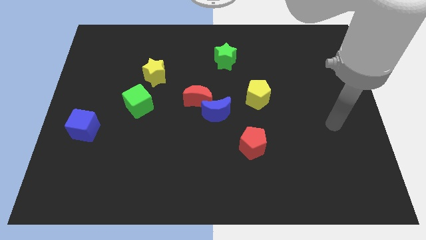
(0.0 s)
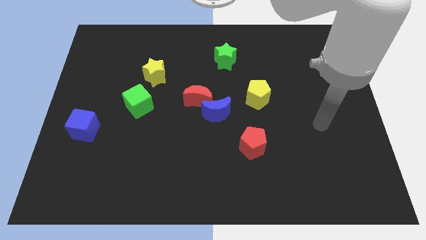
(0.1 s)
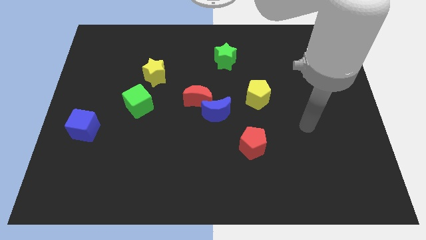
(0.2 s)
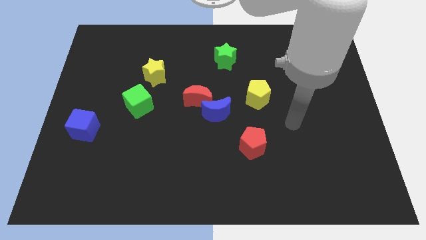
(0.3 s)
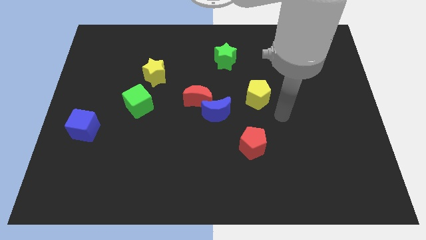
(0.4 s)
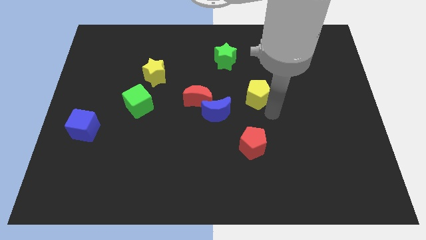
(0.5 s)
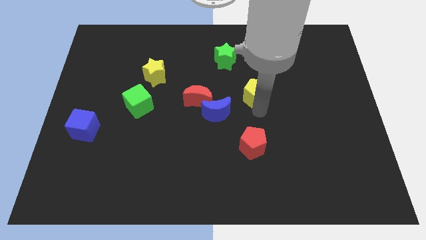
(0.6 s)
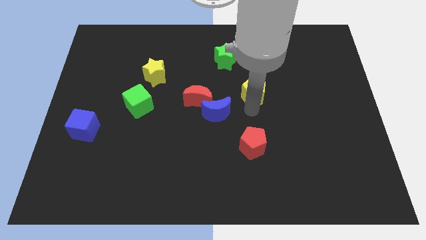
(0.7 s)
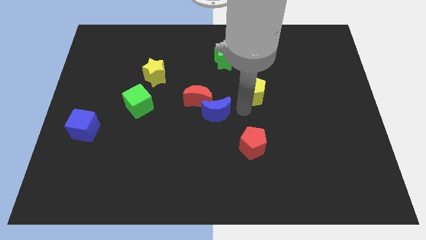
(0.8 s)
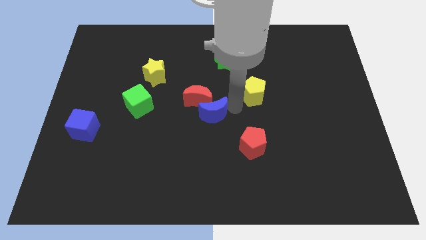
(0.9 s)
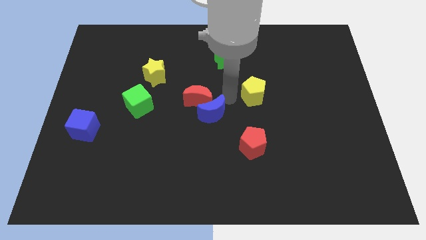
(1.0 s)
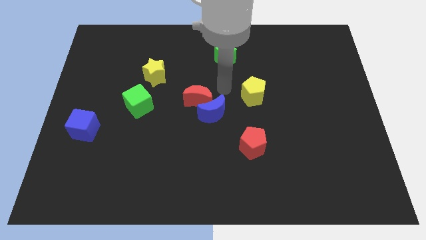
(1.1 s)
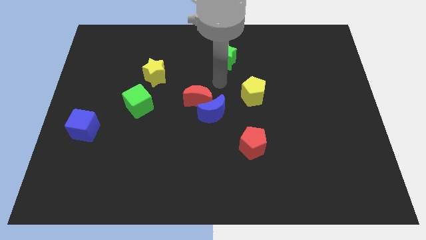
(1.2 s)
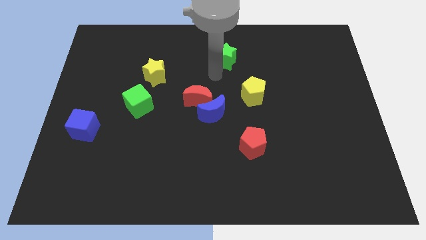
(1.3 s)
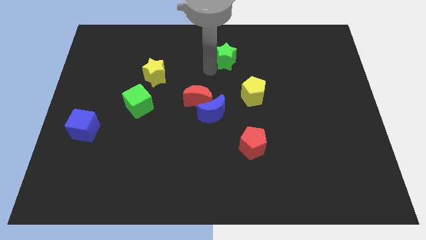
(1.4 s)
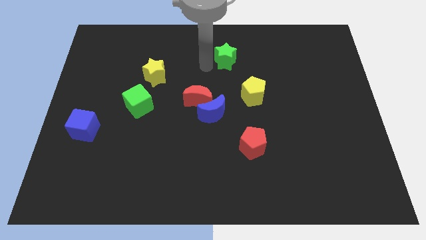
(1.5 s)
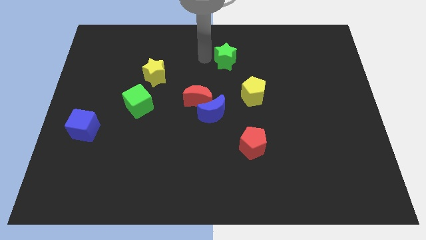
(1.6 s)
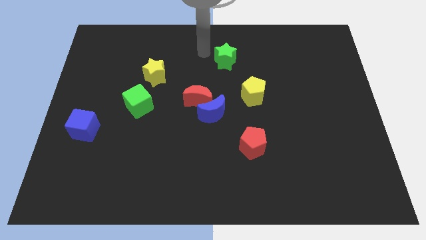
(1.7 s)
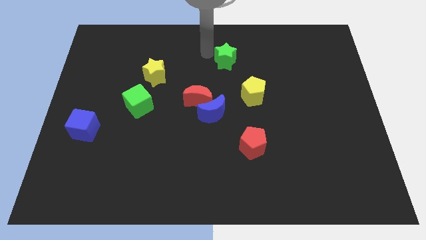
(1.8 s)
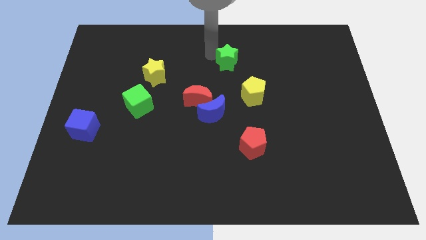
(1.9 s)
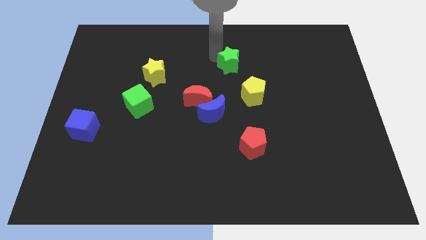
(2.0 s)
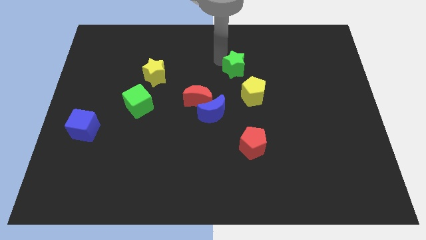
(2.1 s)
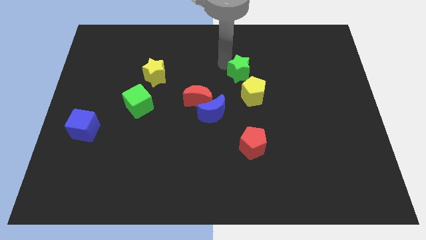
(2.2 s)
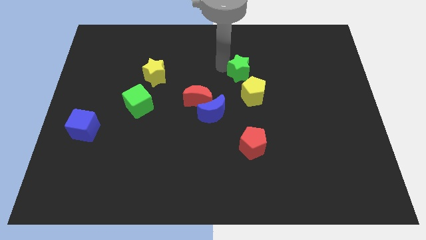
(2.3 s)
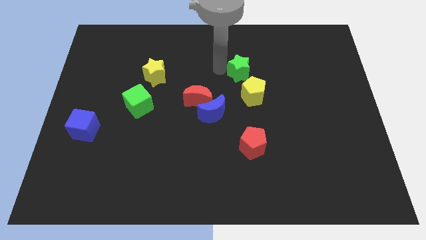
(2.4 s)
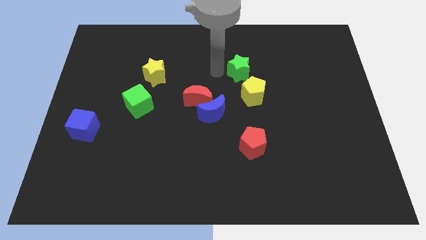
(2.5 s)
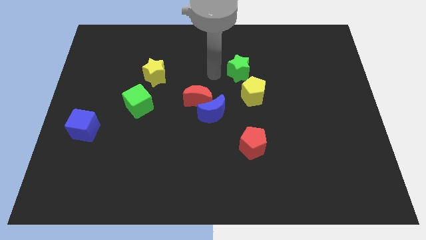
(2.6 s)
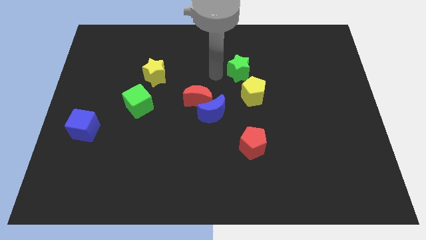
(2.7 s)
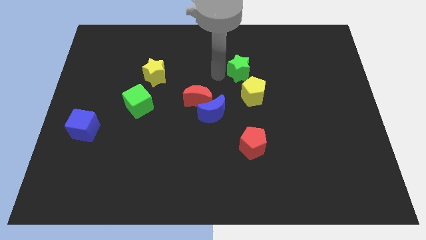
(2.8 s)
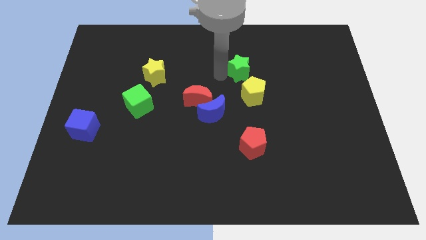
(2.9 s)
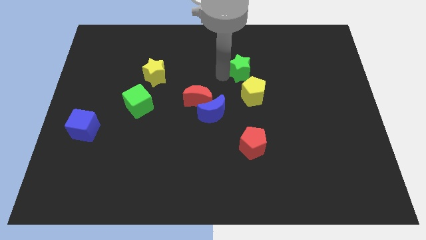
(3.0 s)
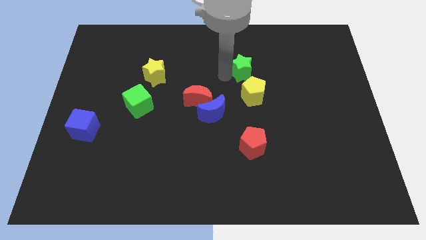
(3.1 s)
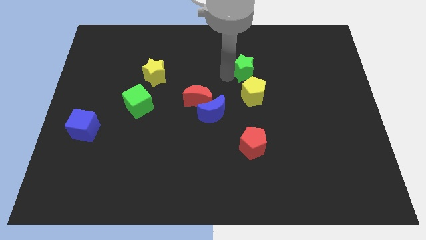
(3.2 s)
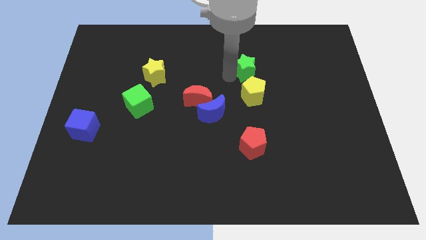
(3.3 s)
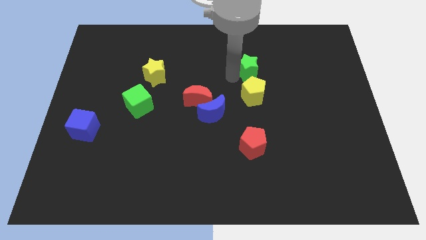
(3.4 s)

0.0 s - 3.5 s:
move the green star downwards and to the right diagonally slightly

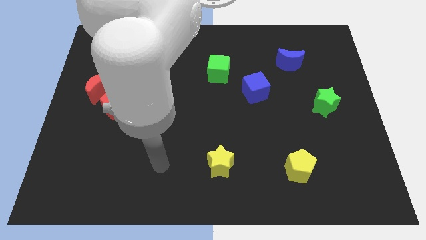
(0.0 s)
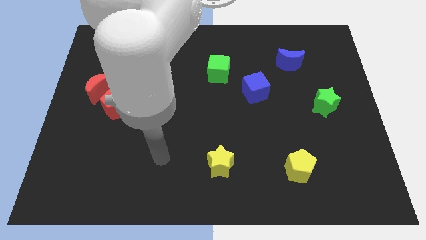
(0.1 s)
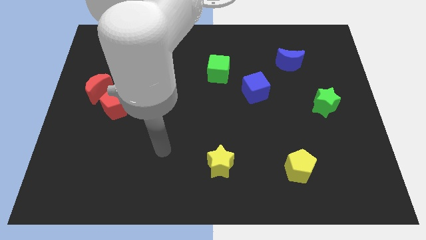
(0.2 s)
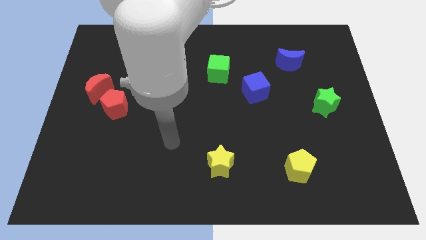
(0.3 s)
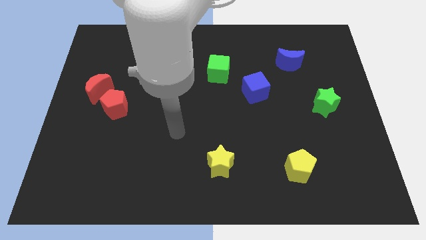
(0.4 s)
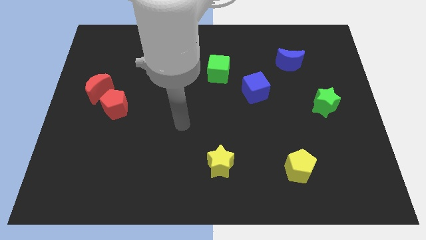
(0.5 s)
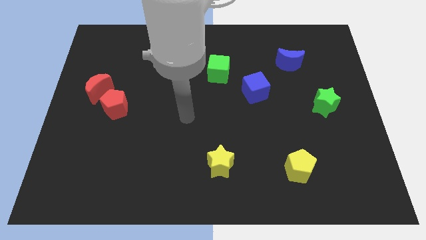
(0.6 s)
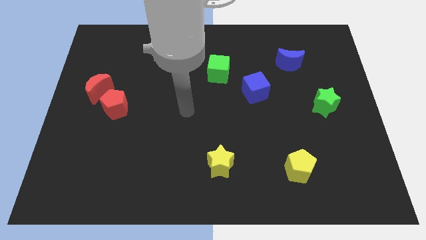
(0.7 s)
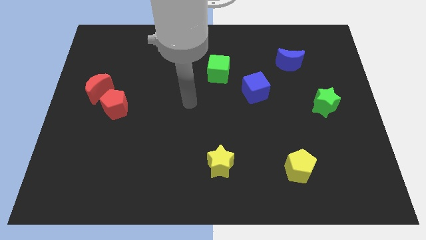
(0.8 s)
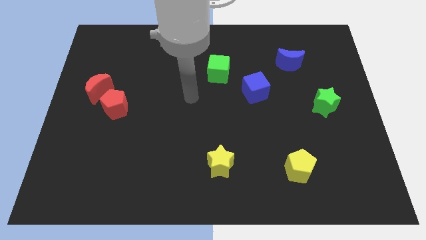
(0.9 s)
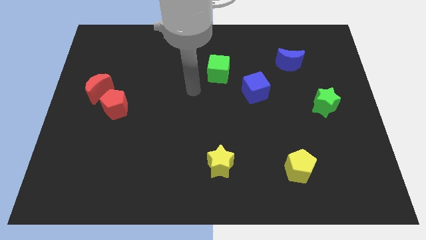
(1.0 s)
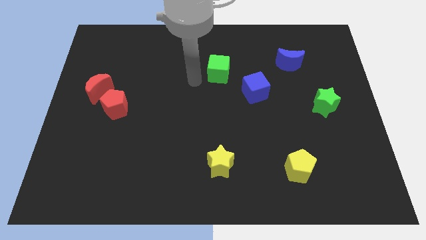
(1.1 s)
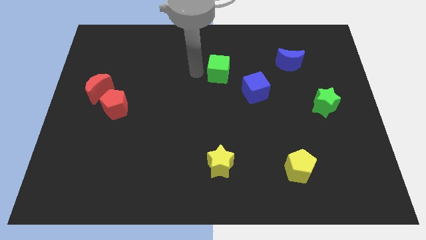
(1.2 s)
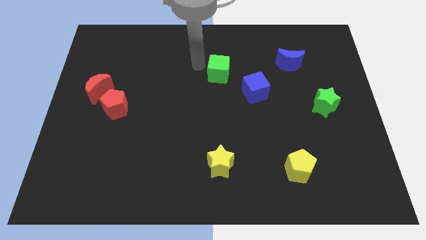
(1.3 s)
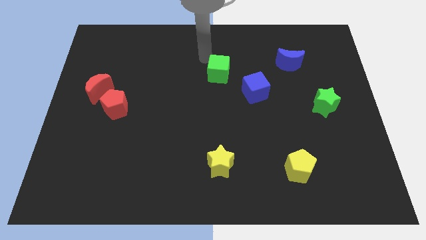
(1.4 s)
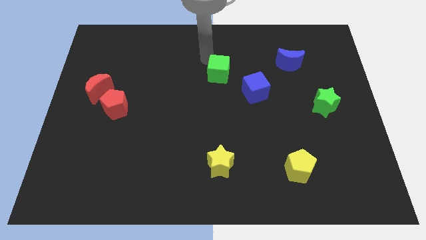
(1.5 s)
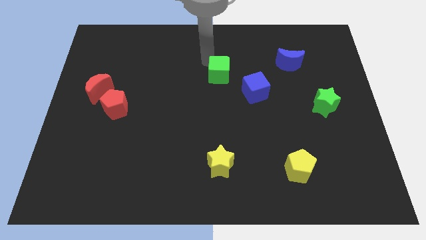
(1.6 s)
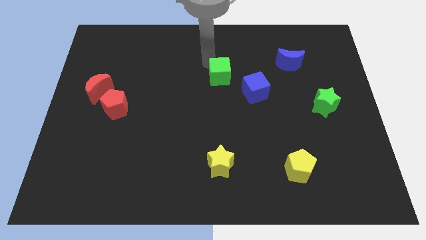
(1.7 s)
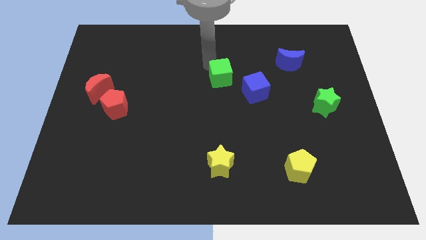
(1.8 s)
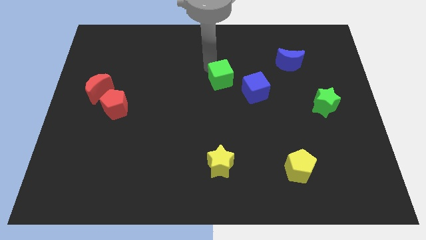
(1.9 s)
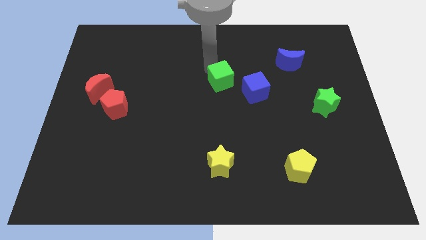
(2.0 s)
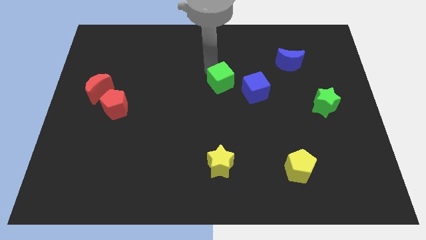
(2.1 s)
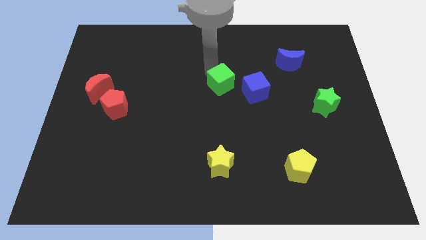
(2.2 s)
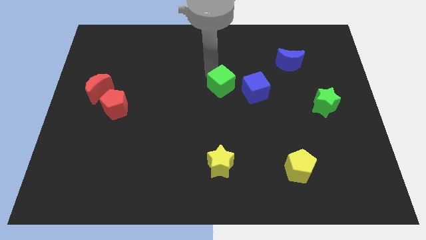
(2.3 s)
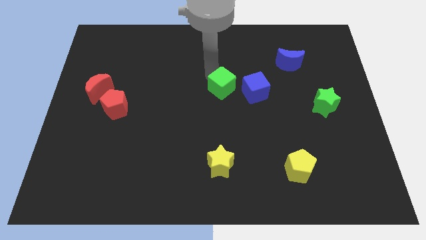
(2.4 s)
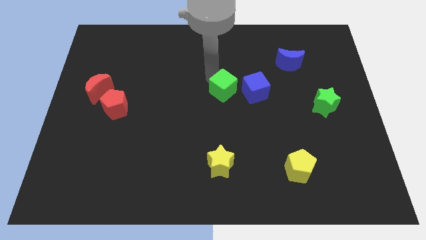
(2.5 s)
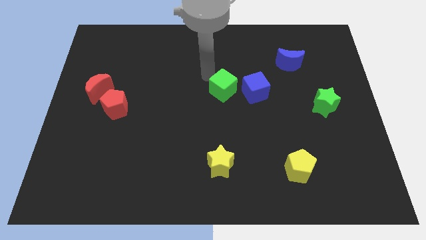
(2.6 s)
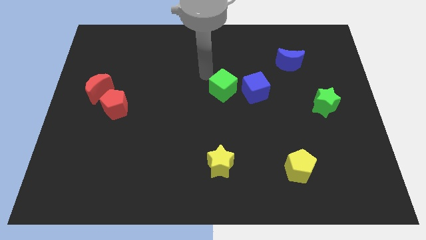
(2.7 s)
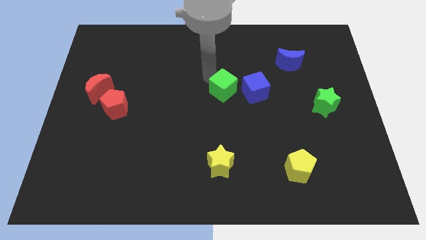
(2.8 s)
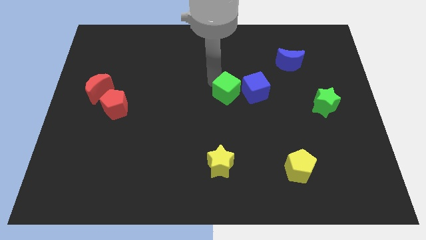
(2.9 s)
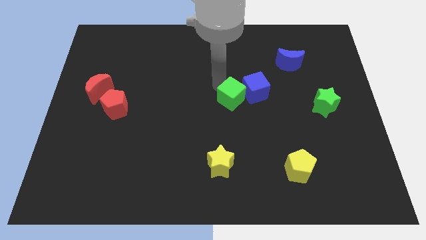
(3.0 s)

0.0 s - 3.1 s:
slide the green cube slightly diagonally down and right

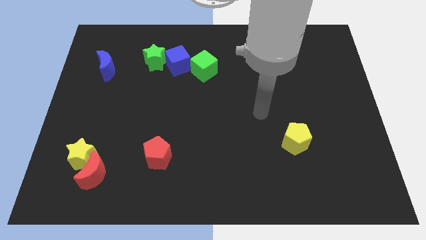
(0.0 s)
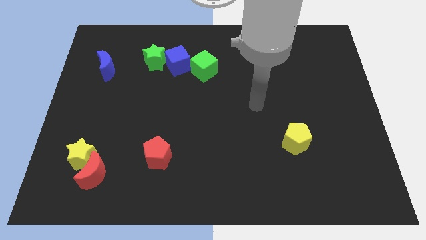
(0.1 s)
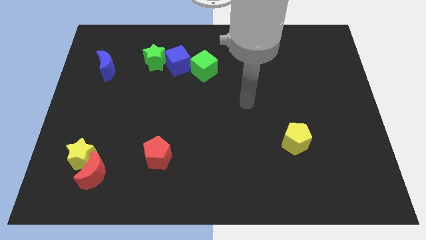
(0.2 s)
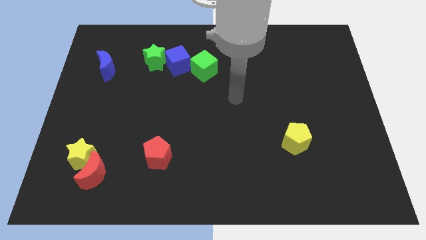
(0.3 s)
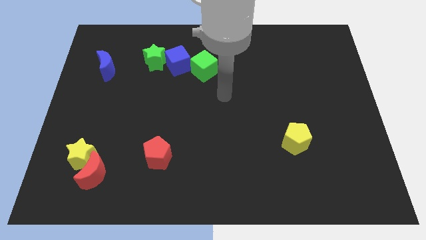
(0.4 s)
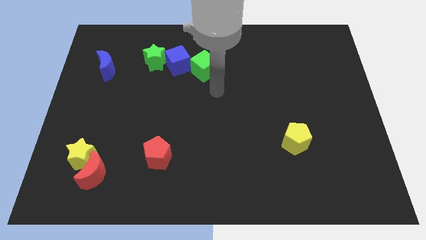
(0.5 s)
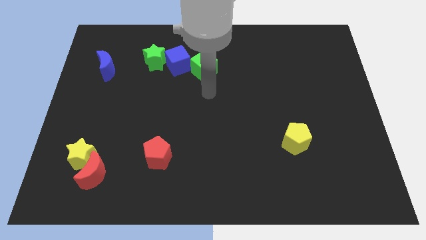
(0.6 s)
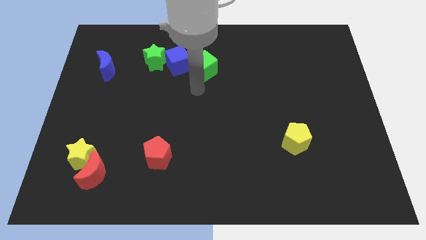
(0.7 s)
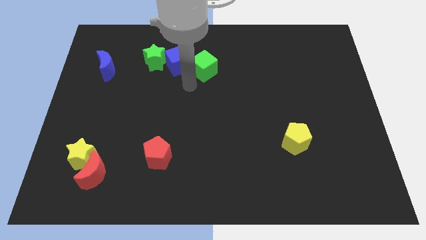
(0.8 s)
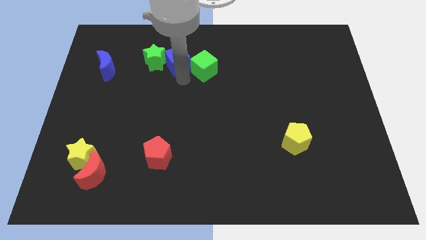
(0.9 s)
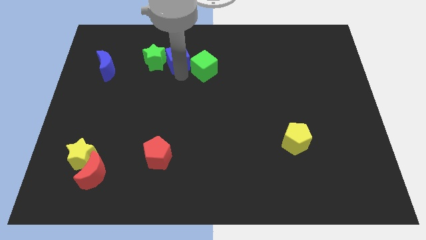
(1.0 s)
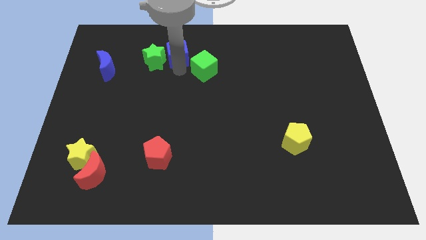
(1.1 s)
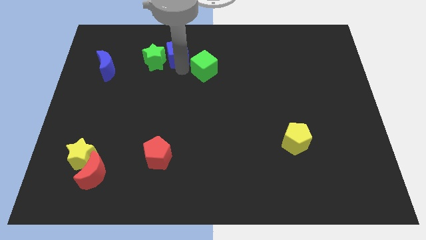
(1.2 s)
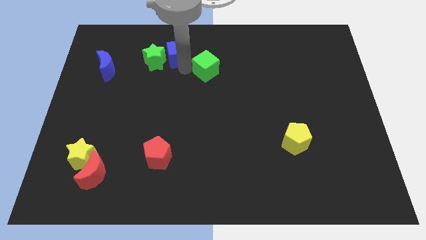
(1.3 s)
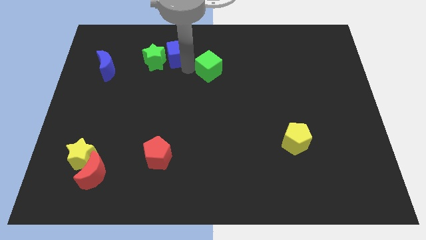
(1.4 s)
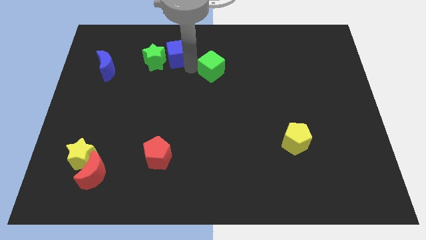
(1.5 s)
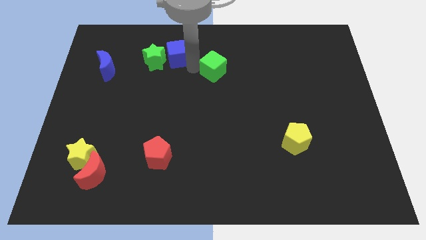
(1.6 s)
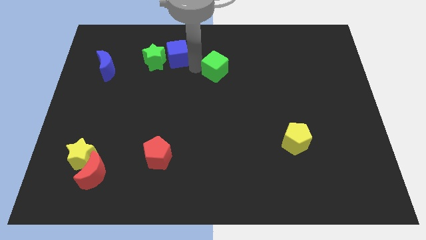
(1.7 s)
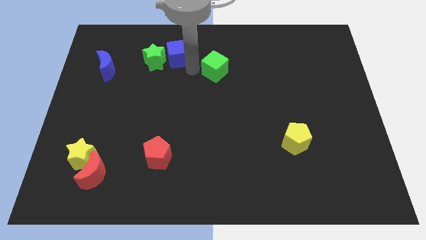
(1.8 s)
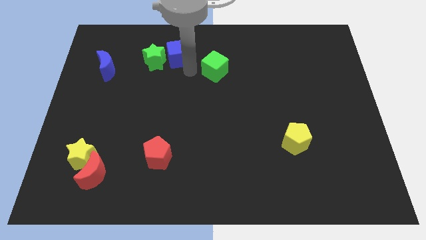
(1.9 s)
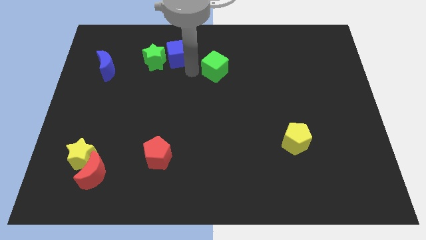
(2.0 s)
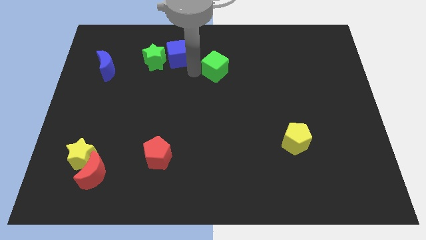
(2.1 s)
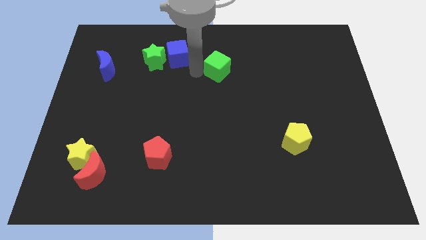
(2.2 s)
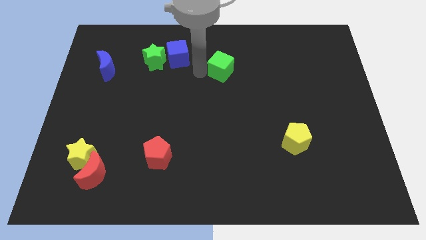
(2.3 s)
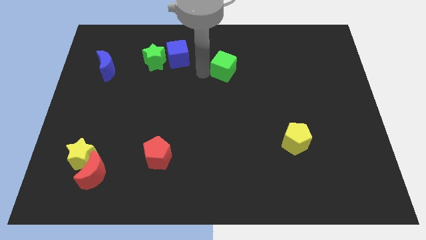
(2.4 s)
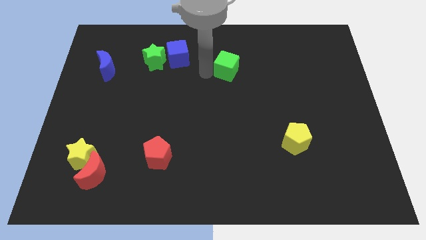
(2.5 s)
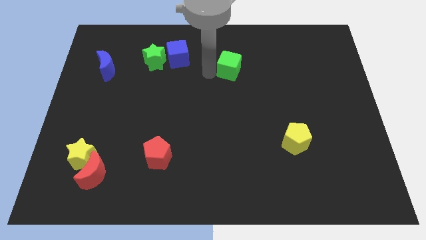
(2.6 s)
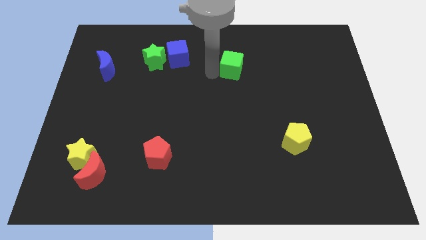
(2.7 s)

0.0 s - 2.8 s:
push the green cube somewhat to the right
